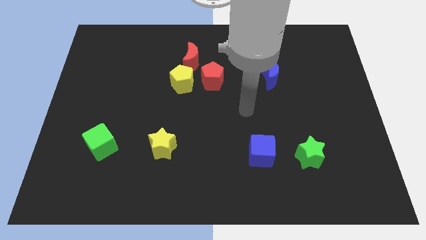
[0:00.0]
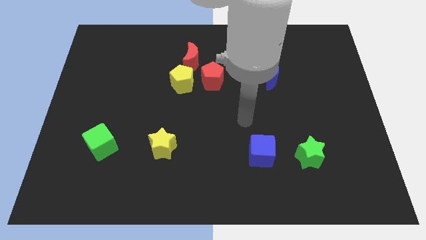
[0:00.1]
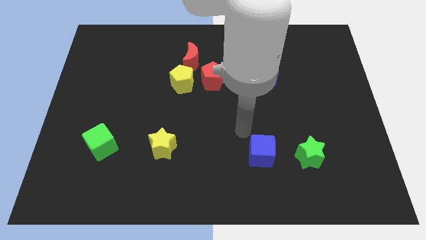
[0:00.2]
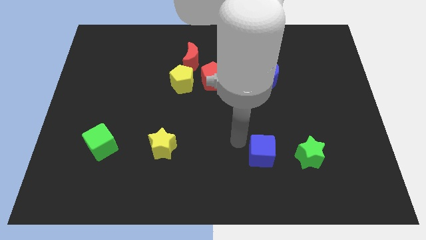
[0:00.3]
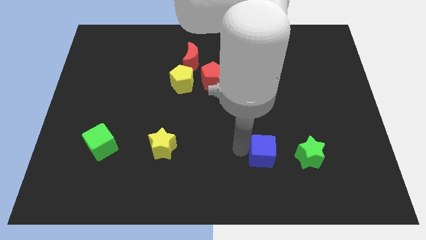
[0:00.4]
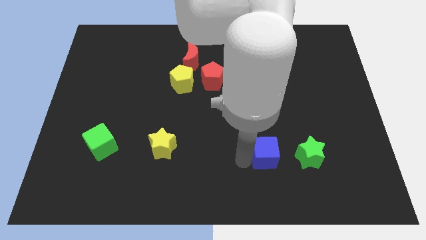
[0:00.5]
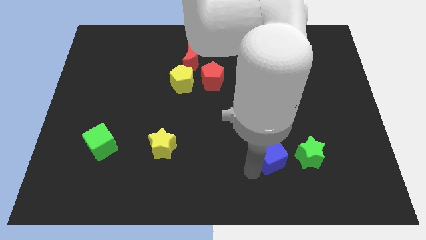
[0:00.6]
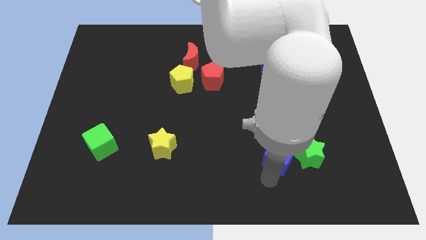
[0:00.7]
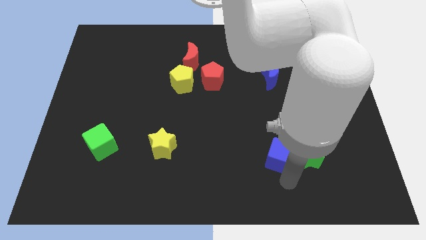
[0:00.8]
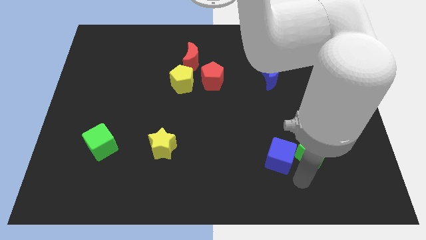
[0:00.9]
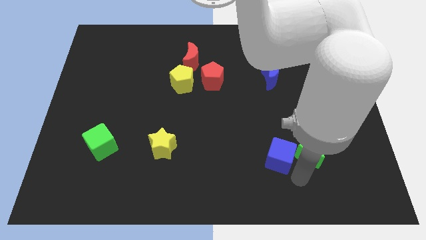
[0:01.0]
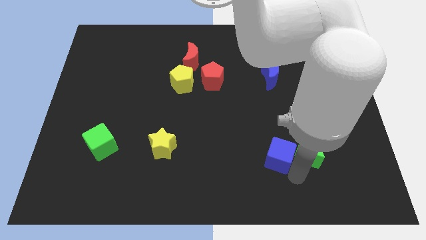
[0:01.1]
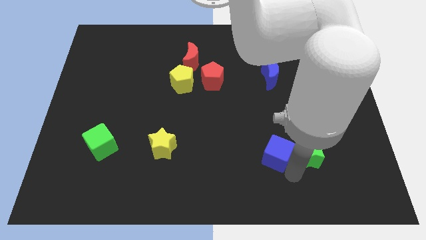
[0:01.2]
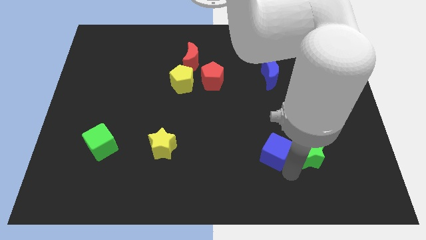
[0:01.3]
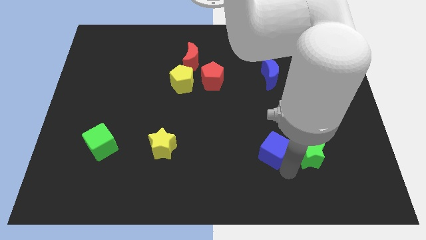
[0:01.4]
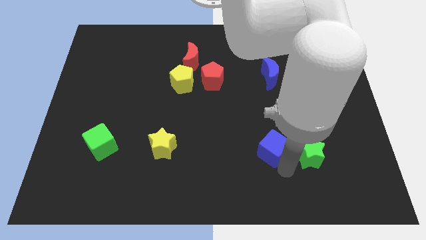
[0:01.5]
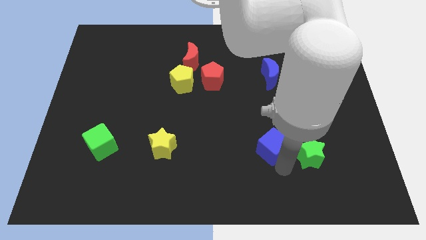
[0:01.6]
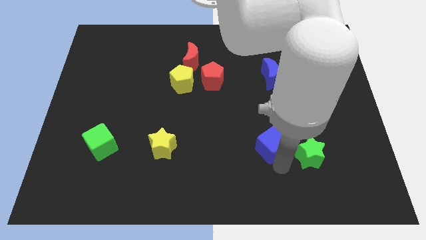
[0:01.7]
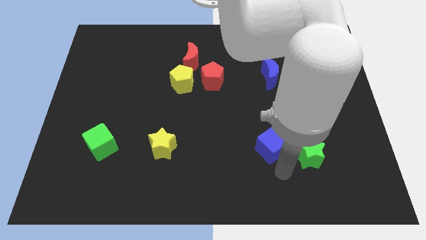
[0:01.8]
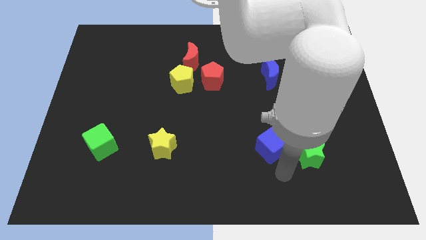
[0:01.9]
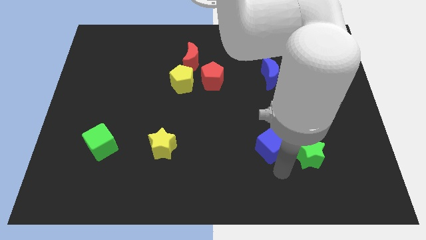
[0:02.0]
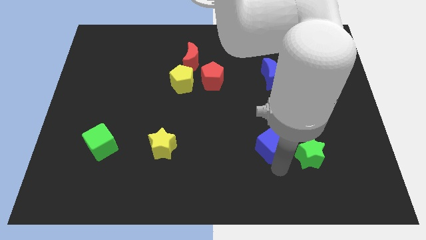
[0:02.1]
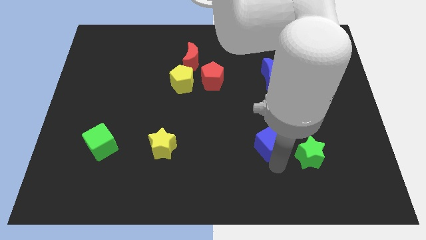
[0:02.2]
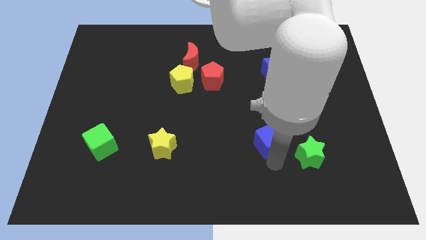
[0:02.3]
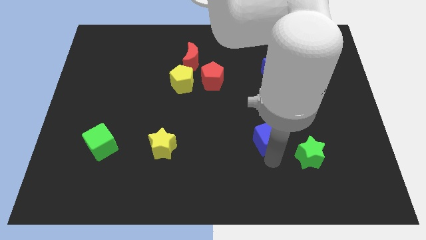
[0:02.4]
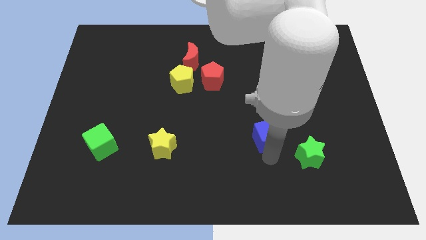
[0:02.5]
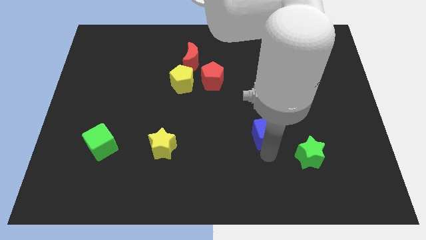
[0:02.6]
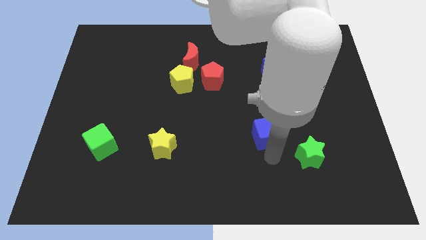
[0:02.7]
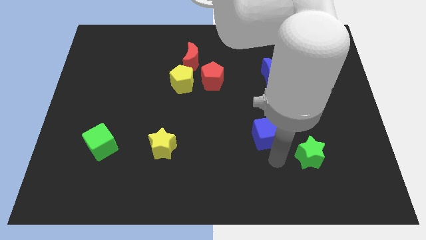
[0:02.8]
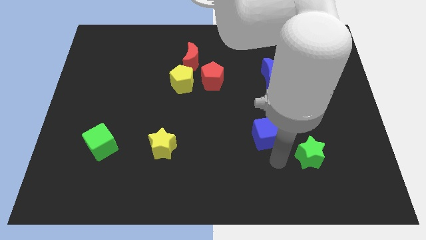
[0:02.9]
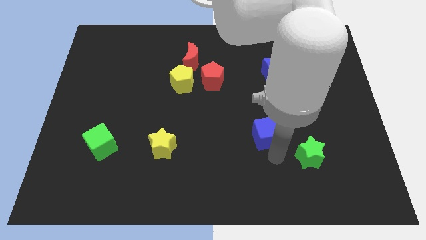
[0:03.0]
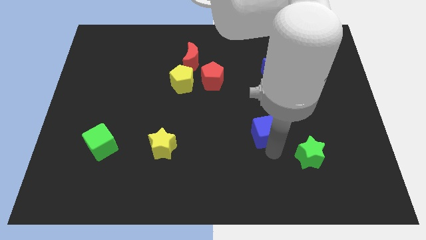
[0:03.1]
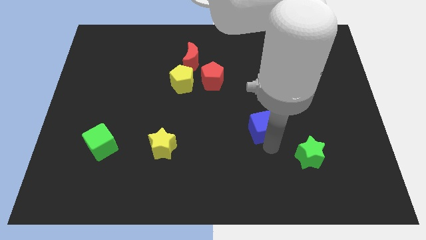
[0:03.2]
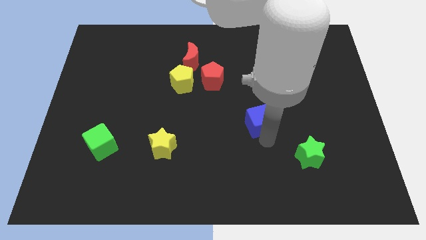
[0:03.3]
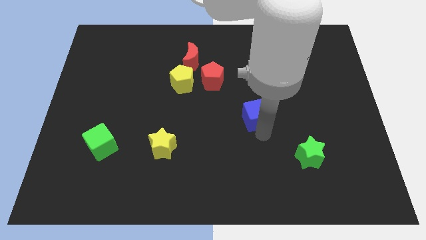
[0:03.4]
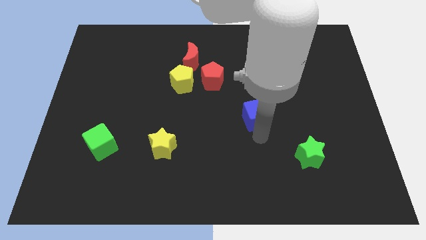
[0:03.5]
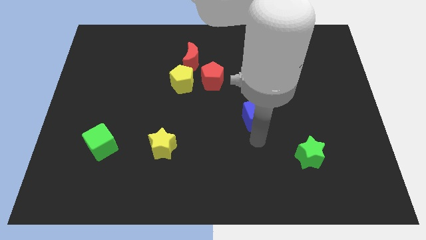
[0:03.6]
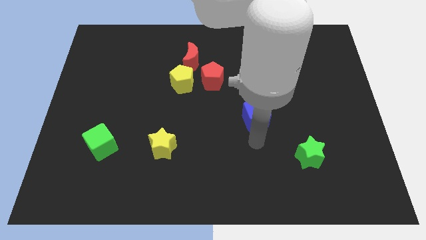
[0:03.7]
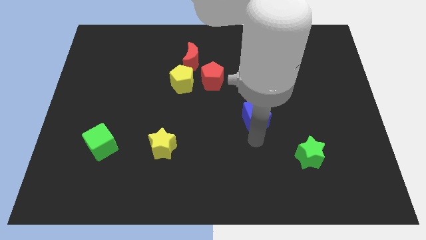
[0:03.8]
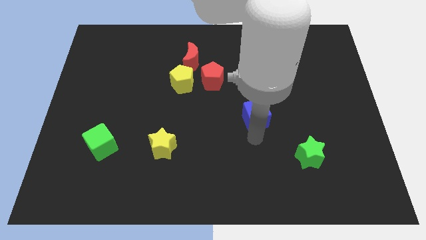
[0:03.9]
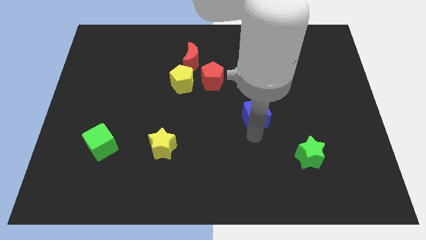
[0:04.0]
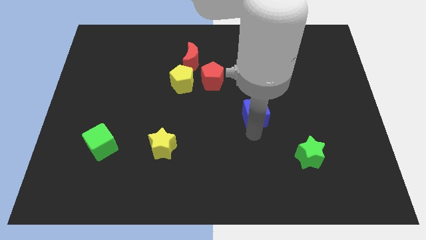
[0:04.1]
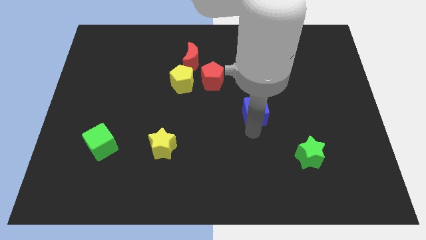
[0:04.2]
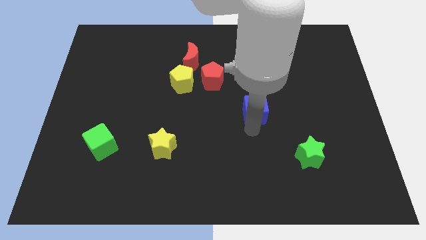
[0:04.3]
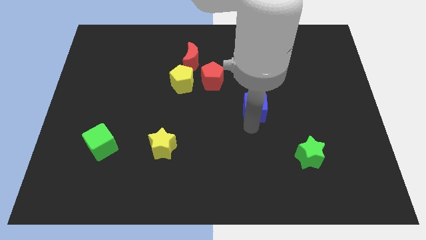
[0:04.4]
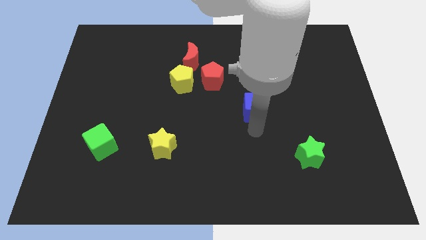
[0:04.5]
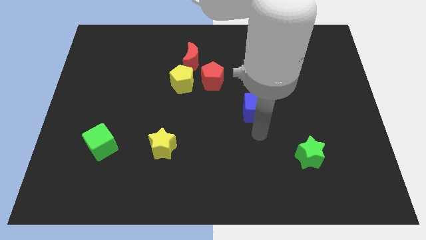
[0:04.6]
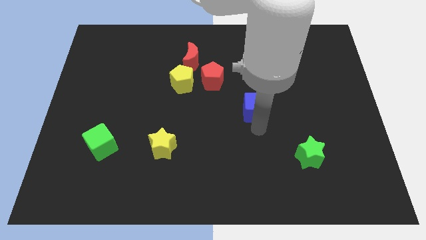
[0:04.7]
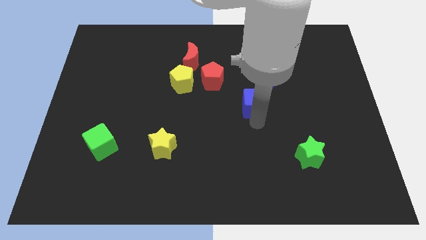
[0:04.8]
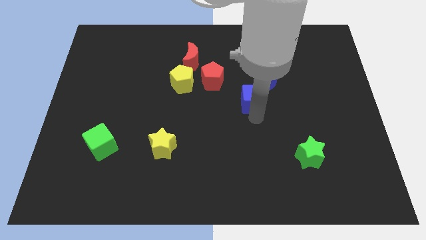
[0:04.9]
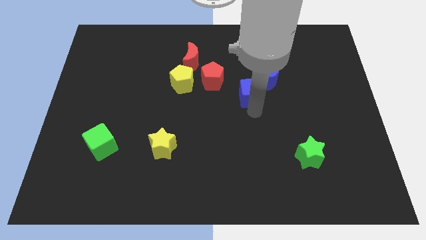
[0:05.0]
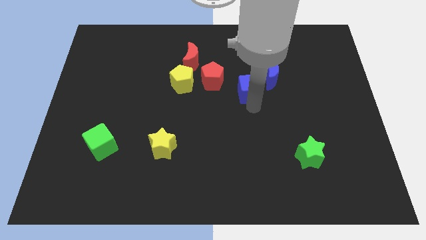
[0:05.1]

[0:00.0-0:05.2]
push the blue cube to the left side of the blue moon

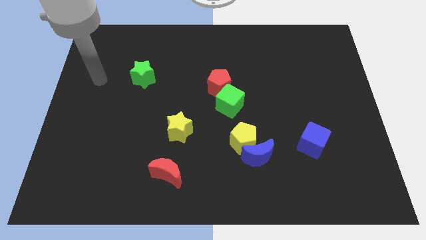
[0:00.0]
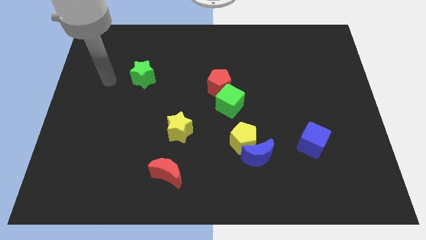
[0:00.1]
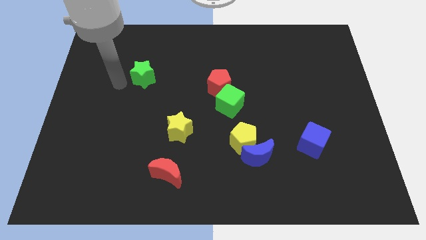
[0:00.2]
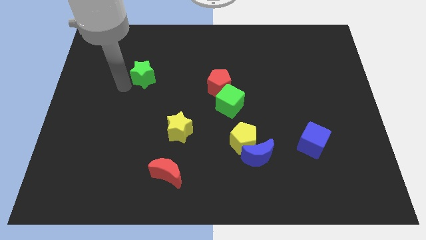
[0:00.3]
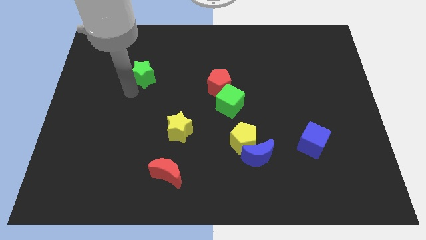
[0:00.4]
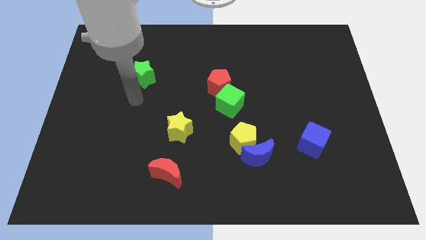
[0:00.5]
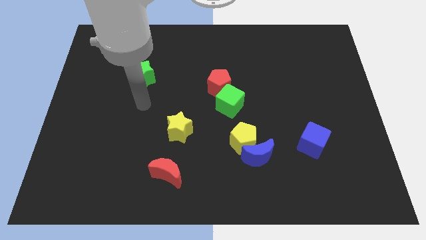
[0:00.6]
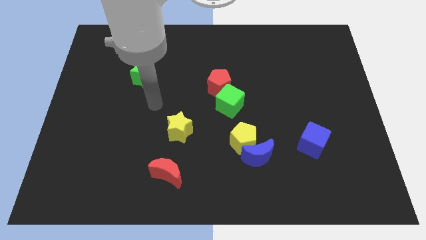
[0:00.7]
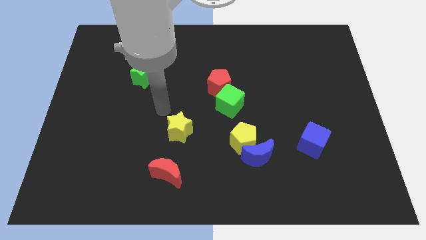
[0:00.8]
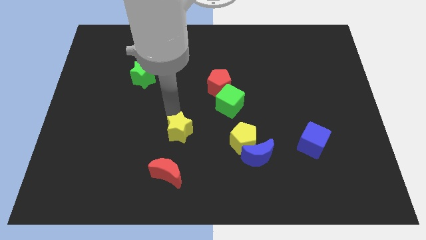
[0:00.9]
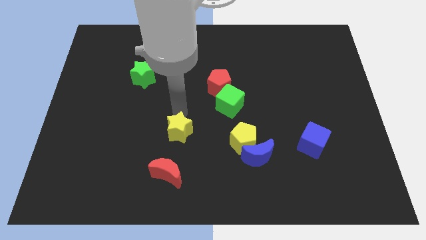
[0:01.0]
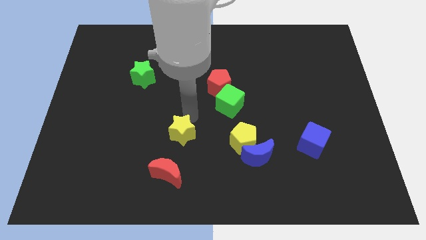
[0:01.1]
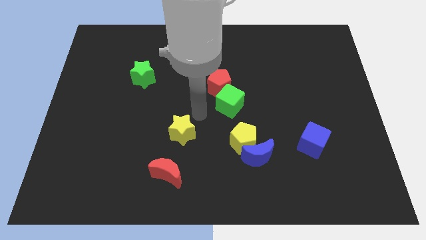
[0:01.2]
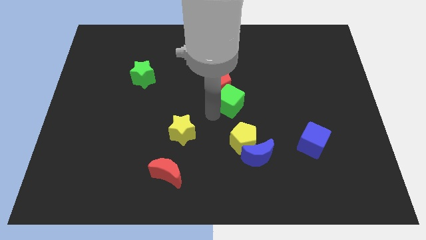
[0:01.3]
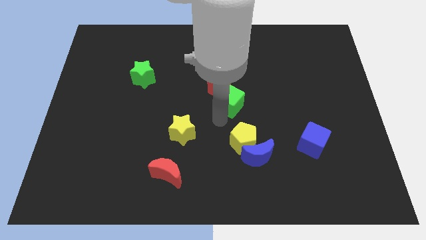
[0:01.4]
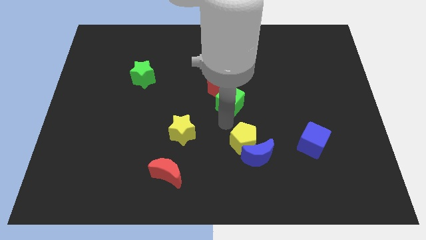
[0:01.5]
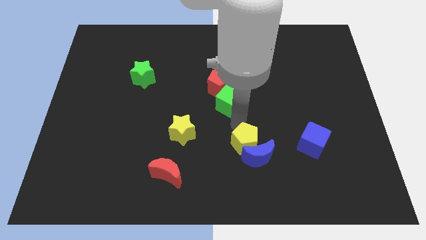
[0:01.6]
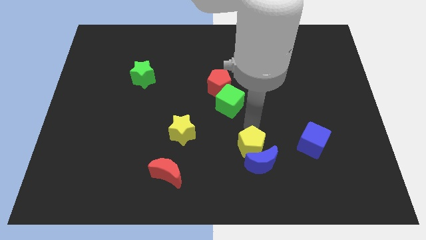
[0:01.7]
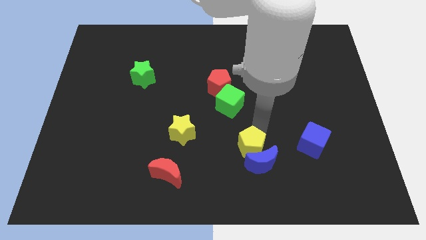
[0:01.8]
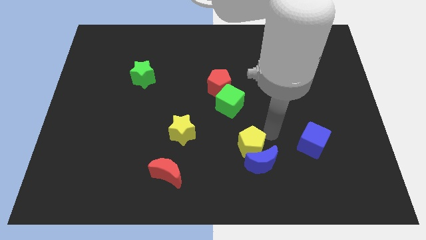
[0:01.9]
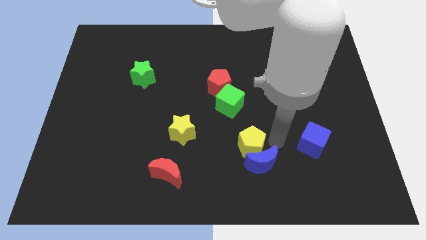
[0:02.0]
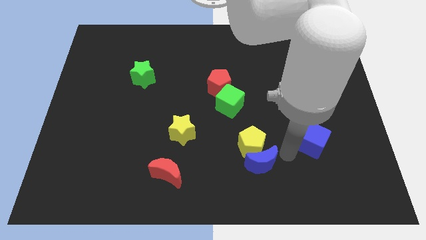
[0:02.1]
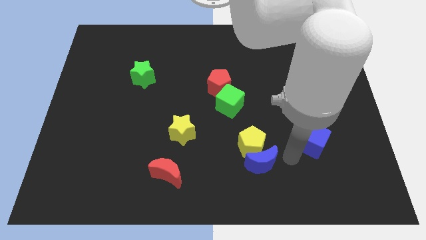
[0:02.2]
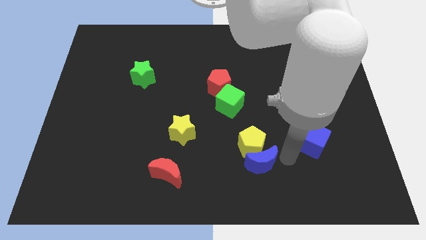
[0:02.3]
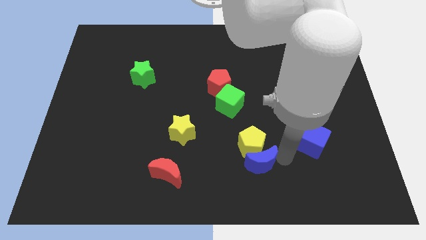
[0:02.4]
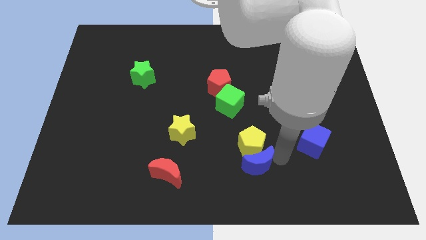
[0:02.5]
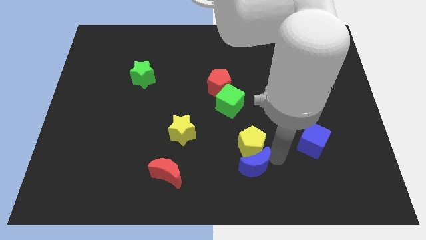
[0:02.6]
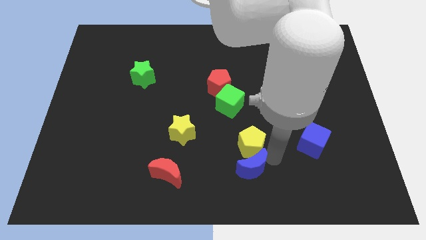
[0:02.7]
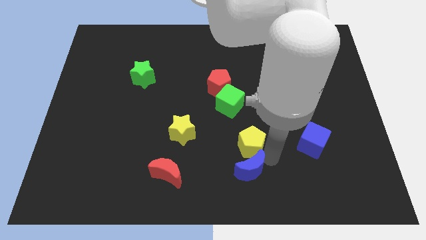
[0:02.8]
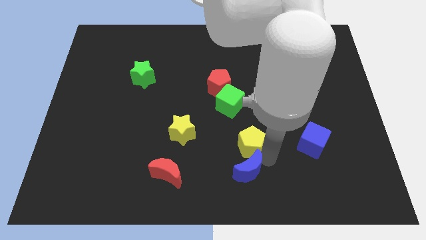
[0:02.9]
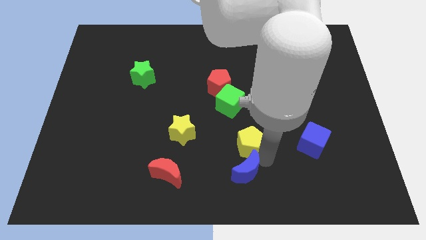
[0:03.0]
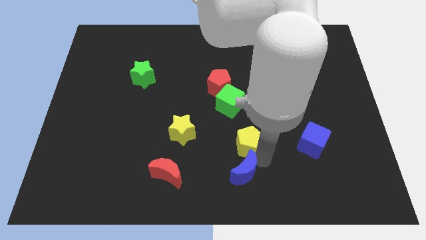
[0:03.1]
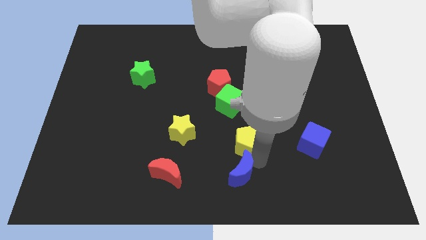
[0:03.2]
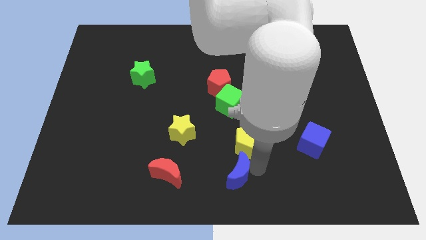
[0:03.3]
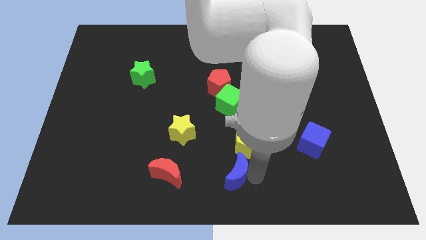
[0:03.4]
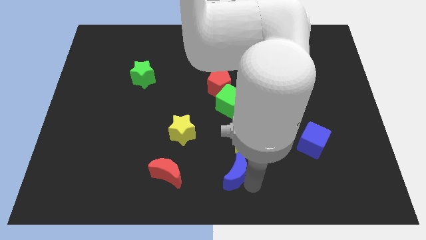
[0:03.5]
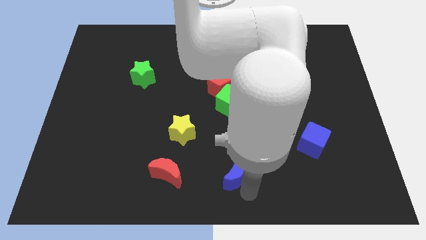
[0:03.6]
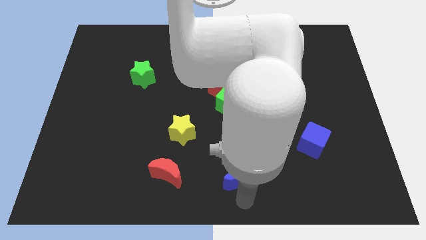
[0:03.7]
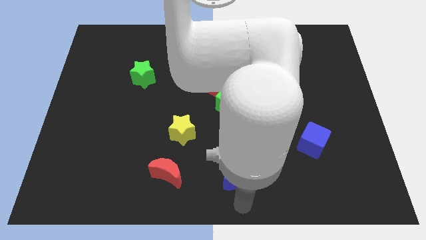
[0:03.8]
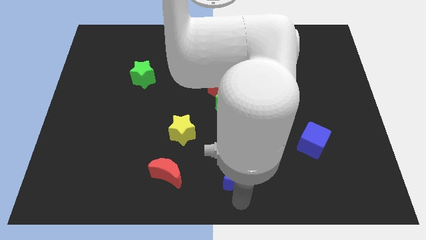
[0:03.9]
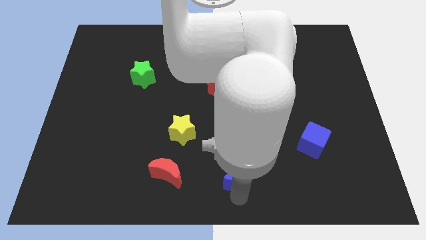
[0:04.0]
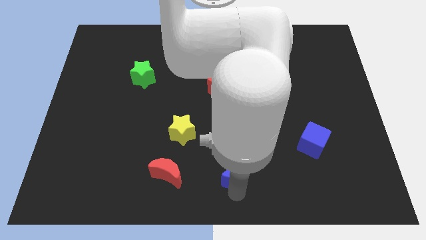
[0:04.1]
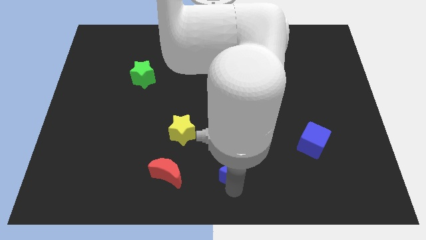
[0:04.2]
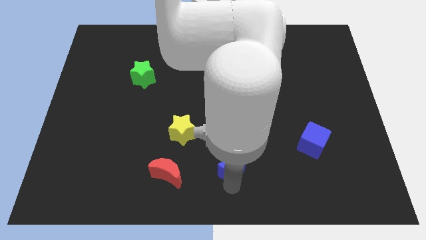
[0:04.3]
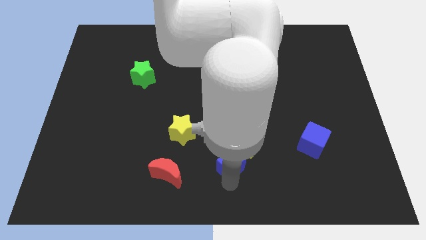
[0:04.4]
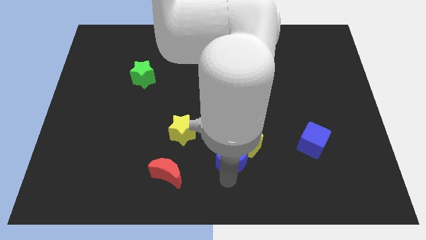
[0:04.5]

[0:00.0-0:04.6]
slide the blue moon below the green cube
